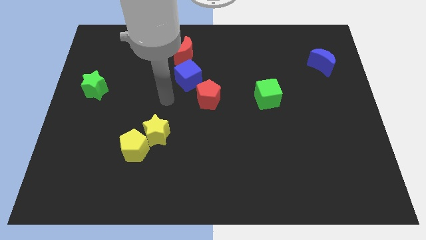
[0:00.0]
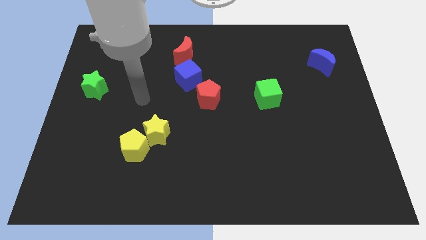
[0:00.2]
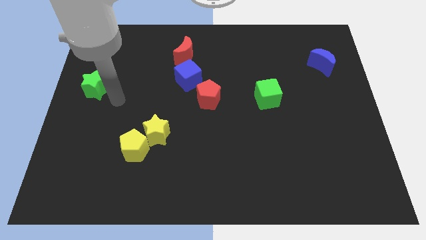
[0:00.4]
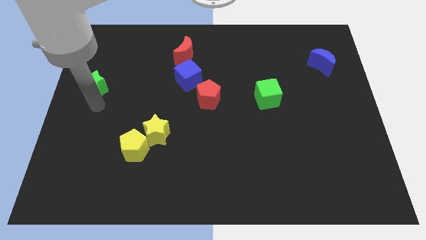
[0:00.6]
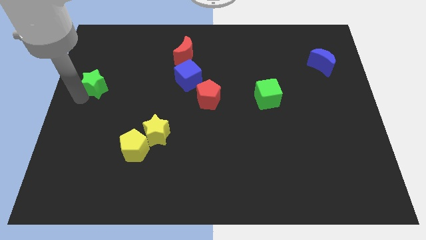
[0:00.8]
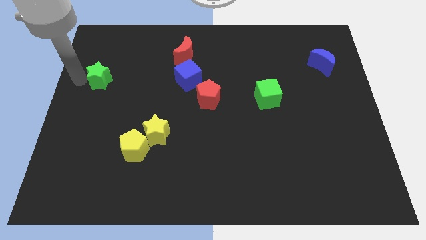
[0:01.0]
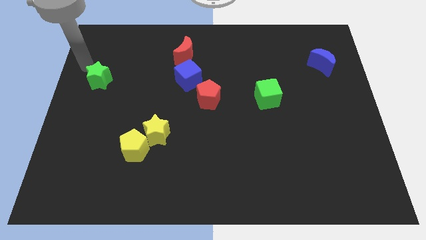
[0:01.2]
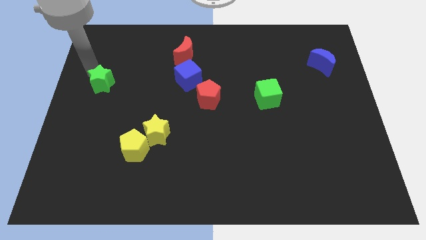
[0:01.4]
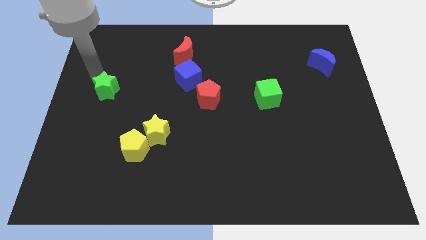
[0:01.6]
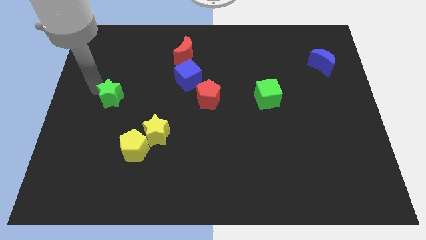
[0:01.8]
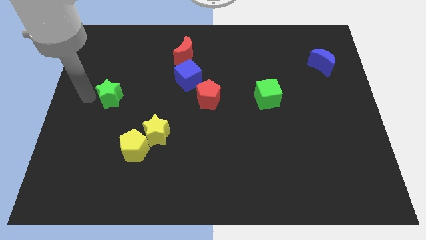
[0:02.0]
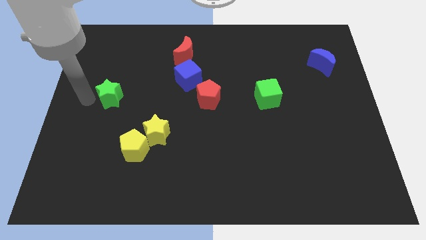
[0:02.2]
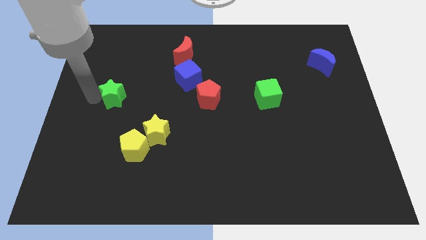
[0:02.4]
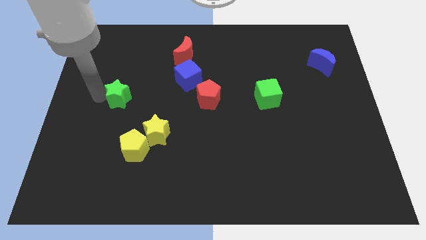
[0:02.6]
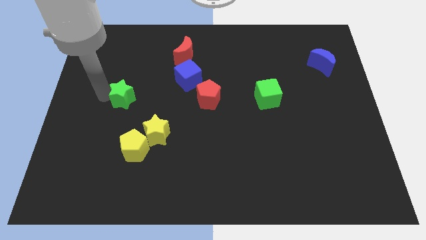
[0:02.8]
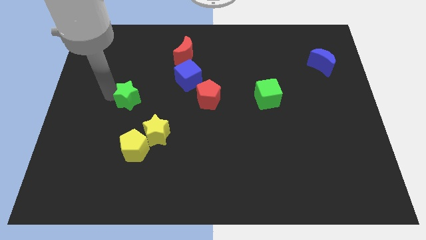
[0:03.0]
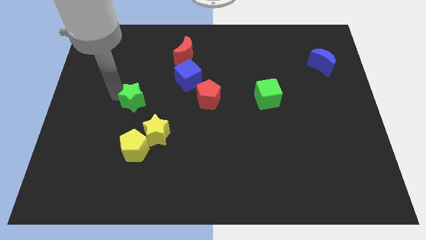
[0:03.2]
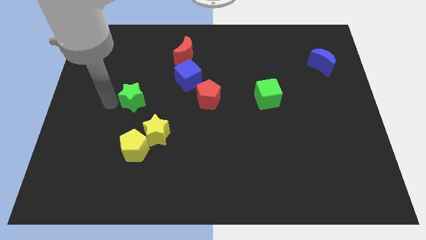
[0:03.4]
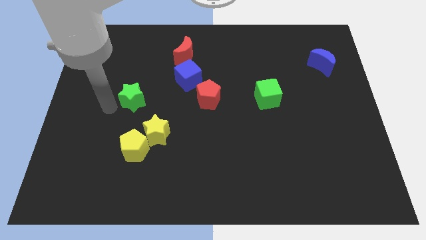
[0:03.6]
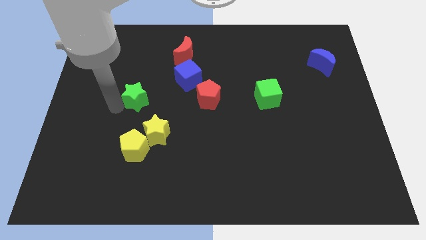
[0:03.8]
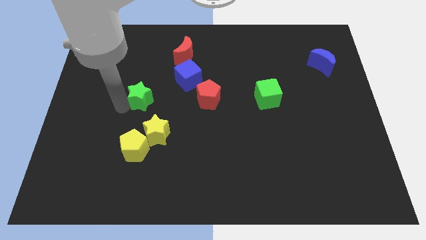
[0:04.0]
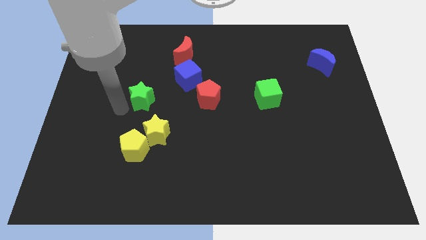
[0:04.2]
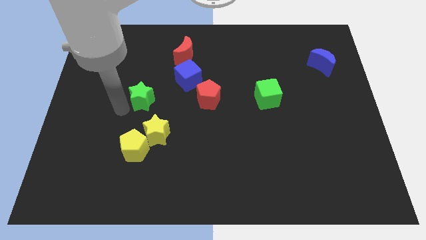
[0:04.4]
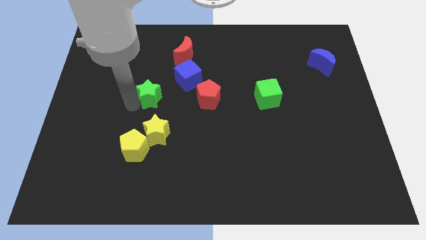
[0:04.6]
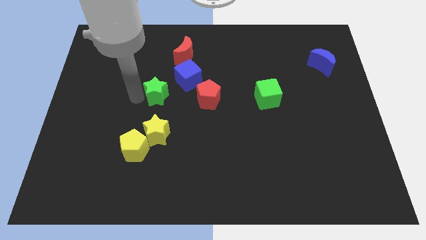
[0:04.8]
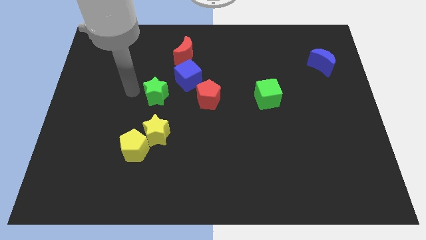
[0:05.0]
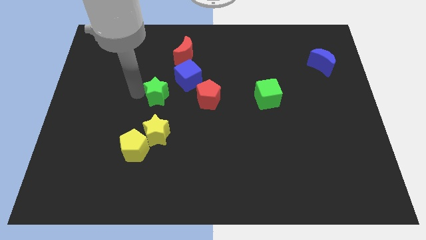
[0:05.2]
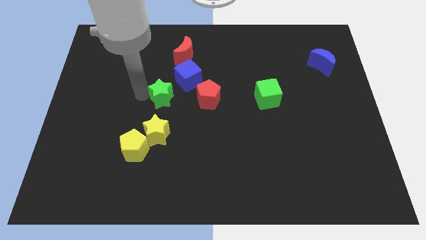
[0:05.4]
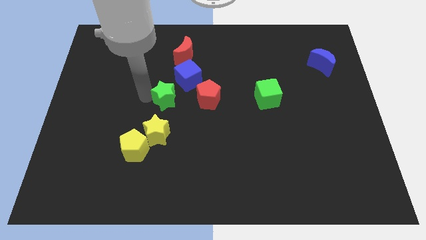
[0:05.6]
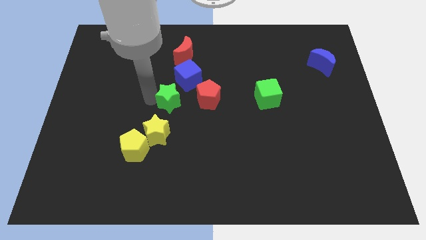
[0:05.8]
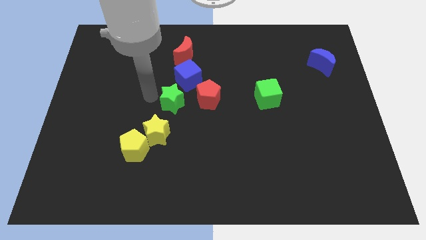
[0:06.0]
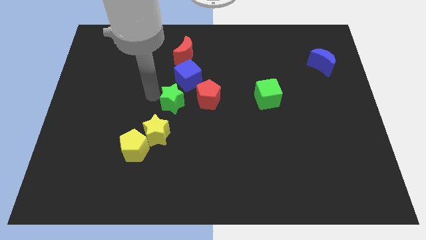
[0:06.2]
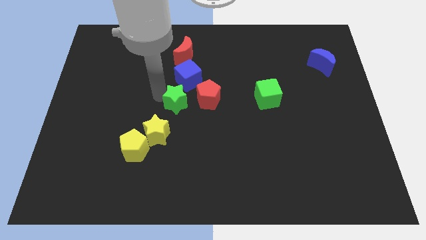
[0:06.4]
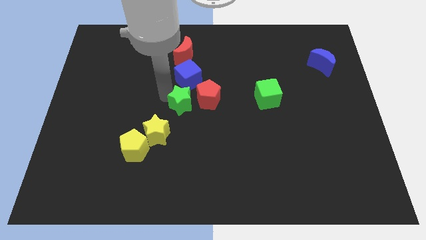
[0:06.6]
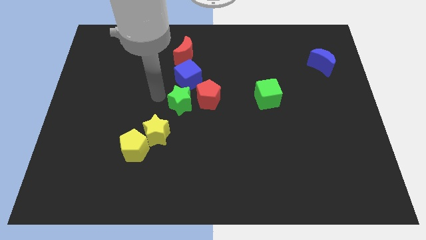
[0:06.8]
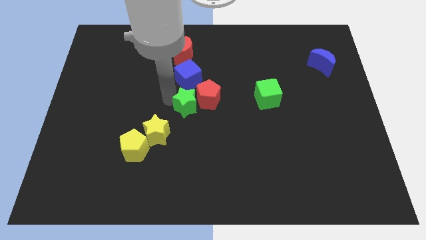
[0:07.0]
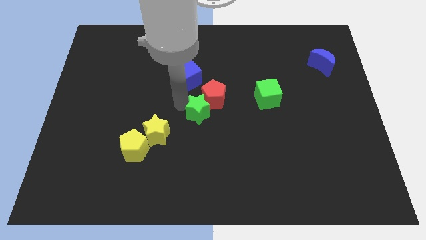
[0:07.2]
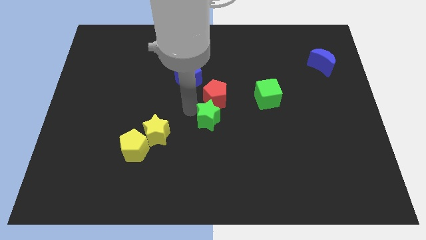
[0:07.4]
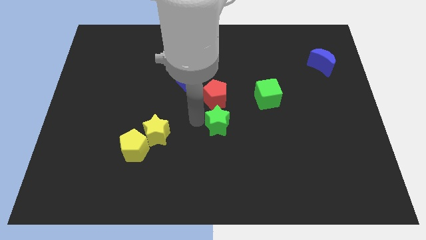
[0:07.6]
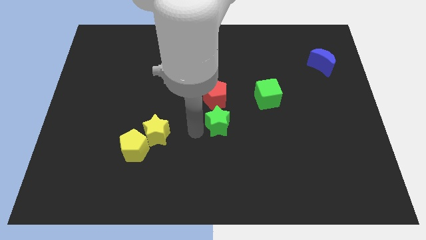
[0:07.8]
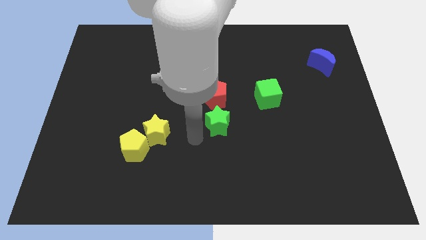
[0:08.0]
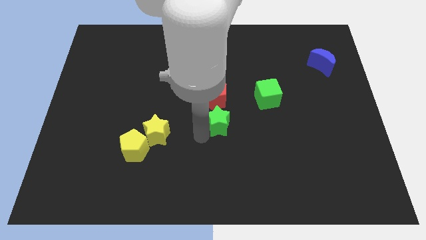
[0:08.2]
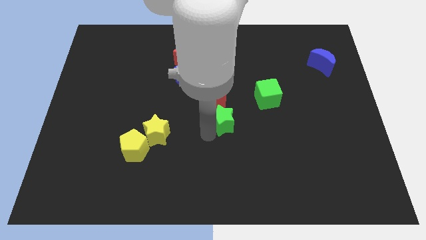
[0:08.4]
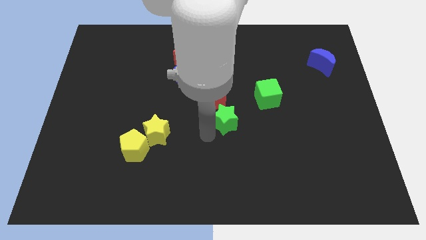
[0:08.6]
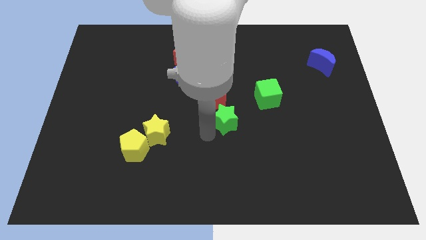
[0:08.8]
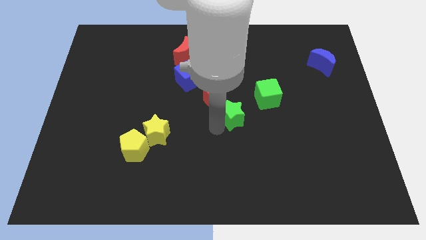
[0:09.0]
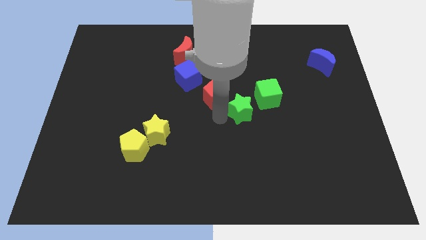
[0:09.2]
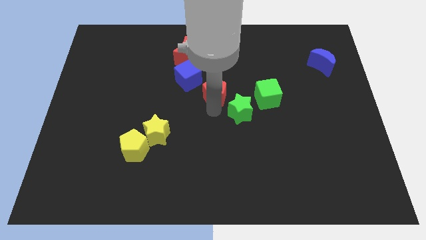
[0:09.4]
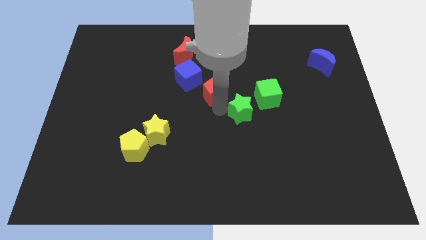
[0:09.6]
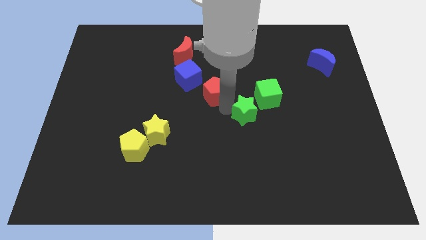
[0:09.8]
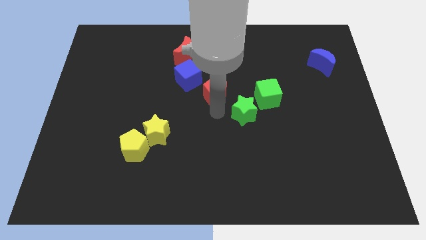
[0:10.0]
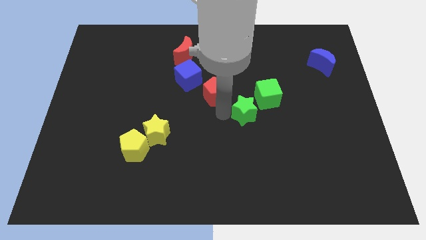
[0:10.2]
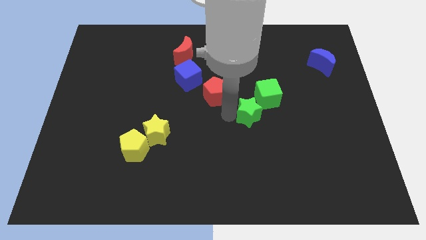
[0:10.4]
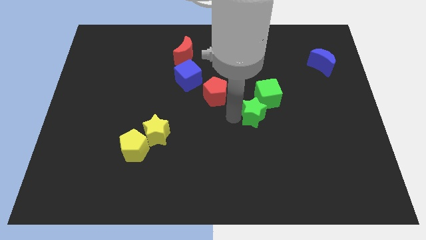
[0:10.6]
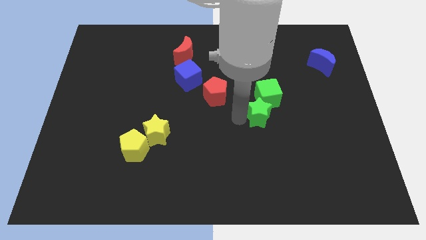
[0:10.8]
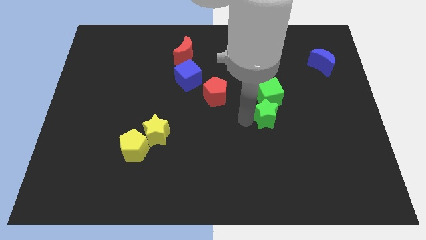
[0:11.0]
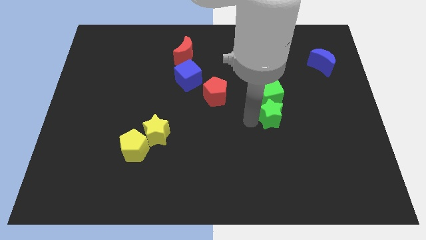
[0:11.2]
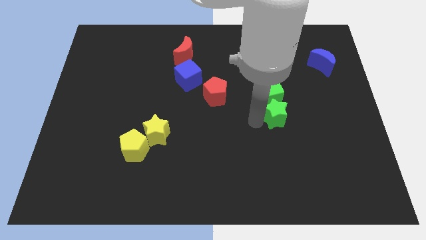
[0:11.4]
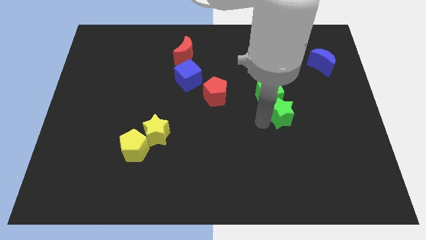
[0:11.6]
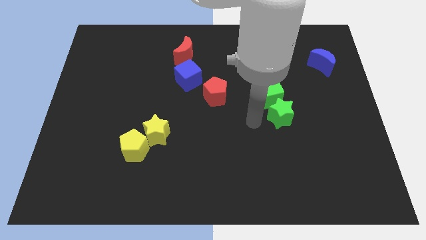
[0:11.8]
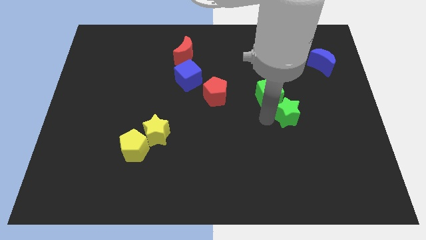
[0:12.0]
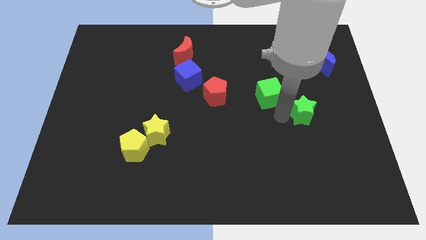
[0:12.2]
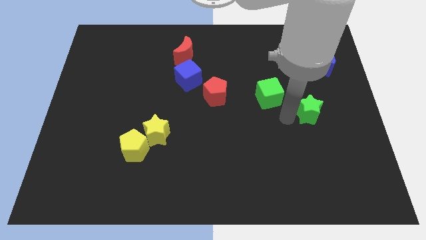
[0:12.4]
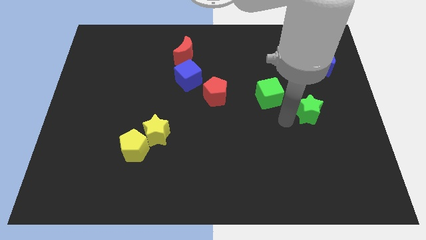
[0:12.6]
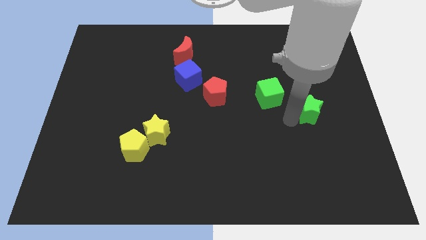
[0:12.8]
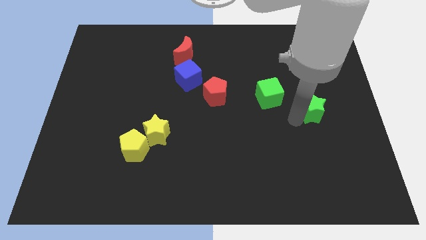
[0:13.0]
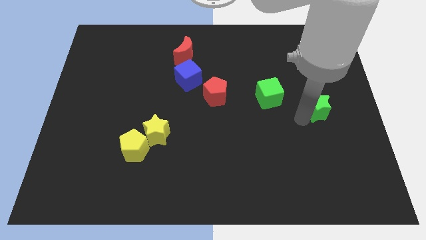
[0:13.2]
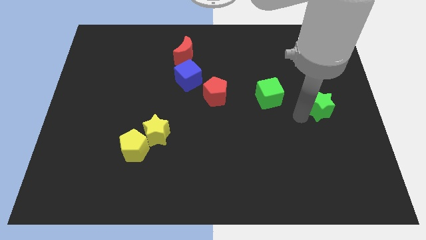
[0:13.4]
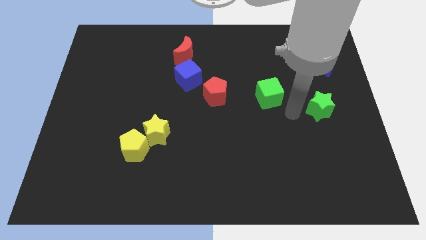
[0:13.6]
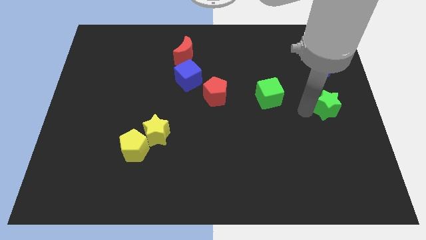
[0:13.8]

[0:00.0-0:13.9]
move the green star to the right side
